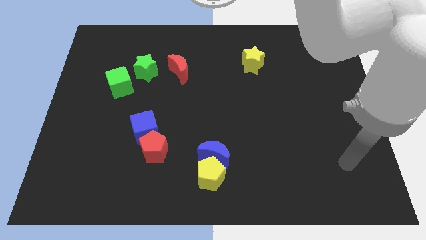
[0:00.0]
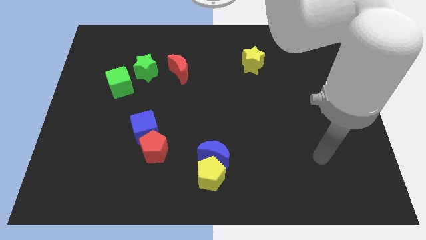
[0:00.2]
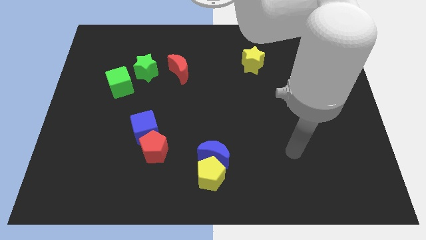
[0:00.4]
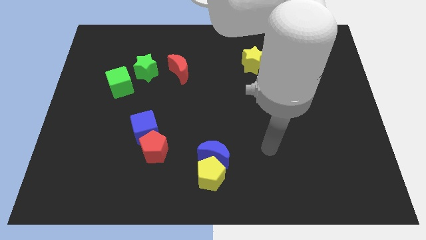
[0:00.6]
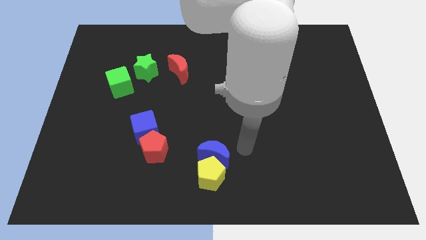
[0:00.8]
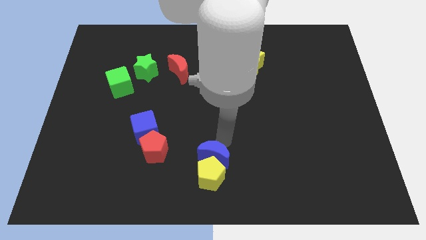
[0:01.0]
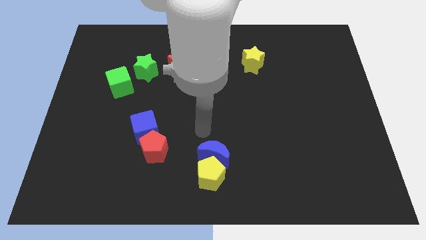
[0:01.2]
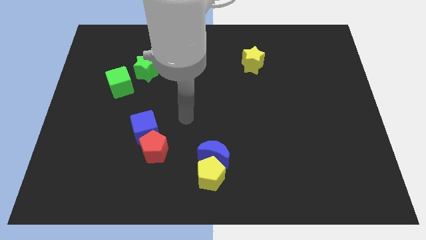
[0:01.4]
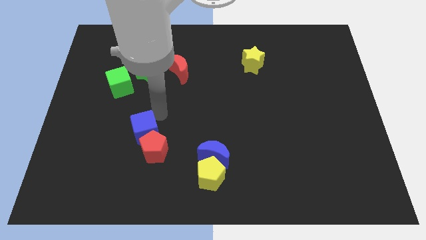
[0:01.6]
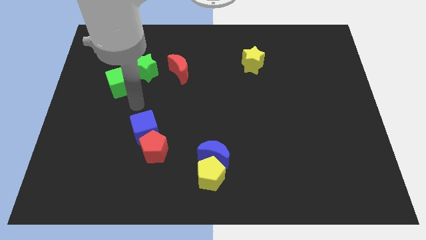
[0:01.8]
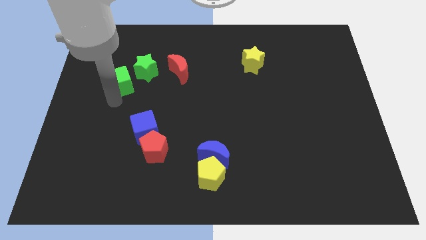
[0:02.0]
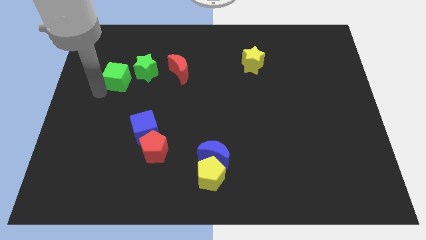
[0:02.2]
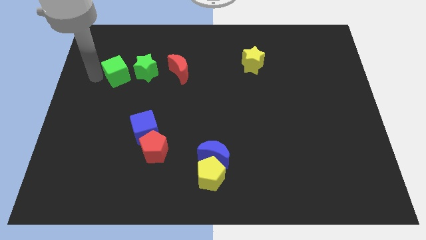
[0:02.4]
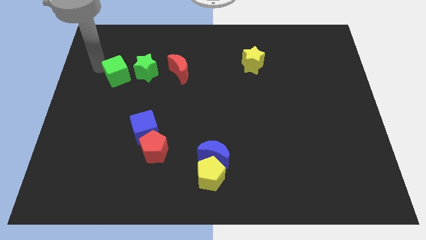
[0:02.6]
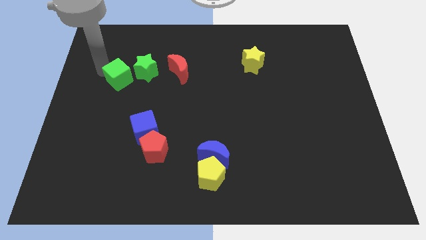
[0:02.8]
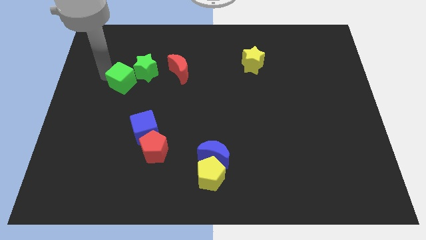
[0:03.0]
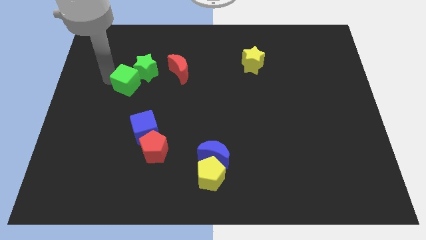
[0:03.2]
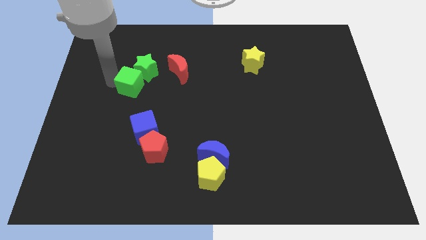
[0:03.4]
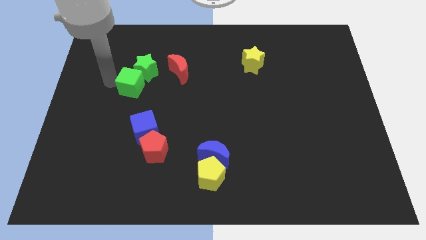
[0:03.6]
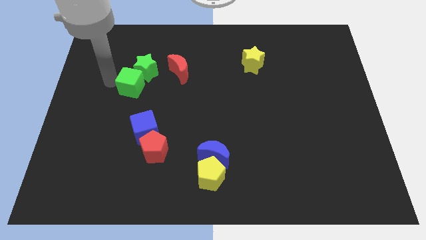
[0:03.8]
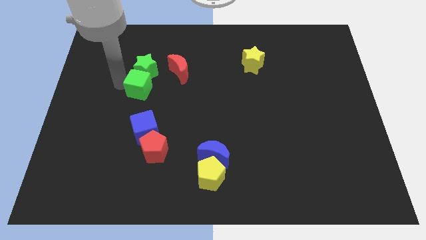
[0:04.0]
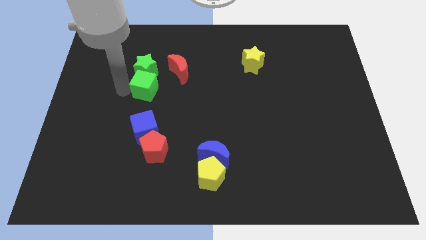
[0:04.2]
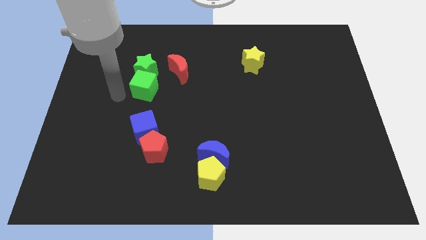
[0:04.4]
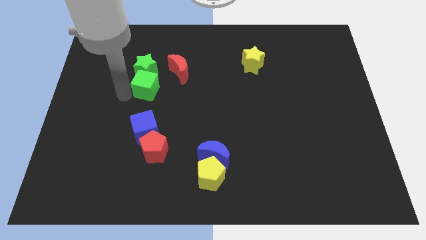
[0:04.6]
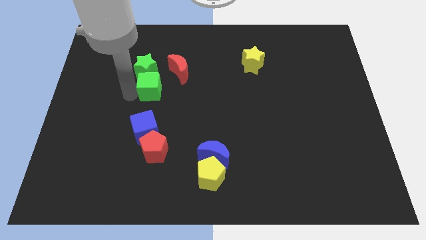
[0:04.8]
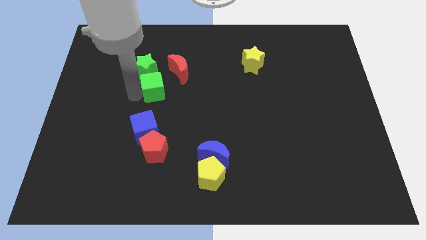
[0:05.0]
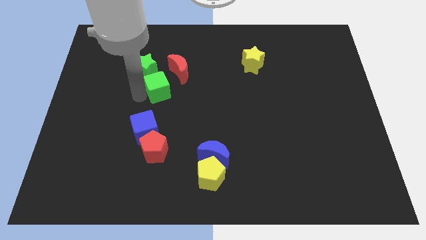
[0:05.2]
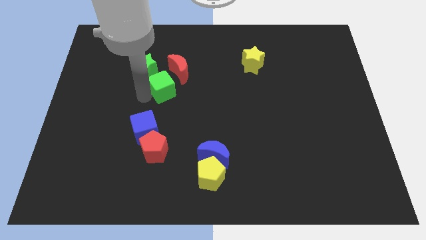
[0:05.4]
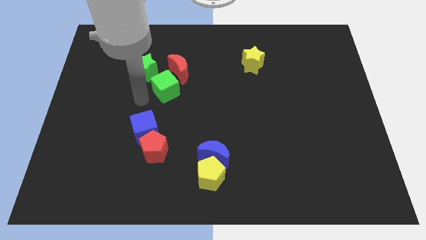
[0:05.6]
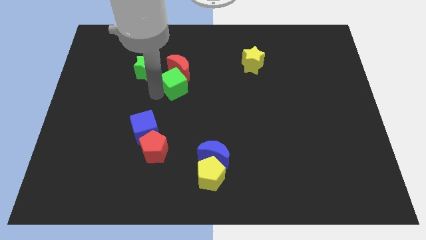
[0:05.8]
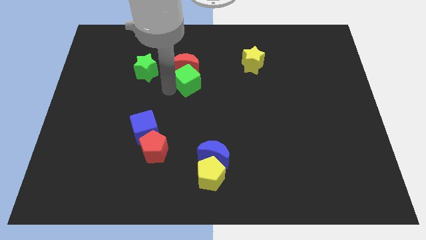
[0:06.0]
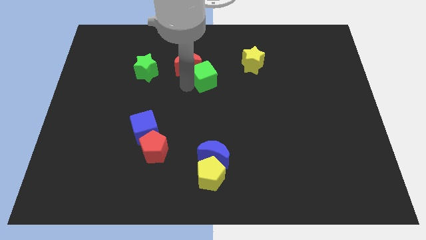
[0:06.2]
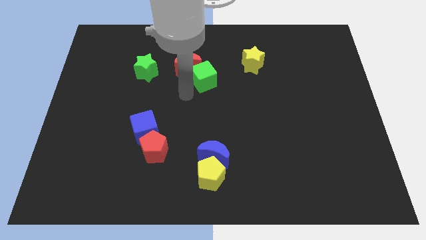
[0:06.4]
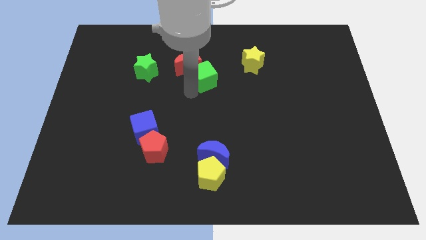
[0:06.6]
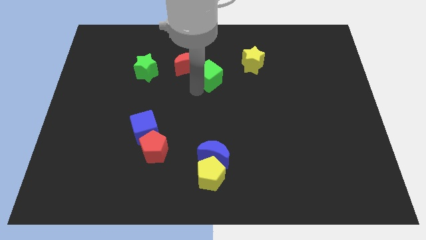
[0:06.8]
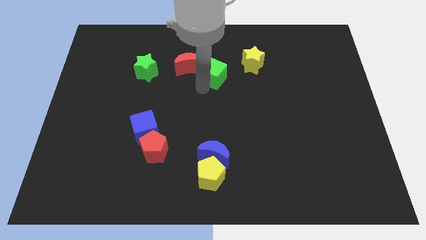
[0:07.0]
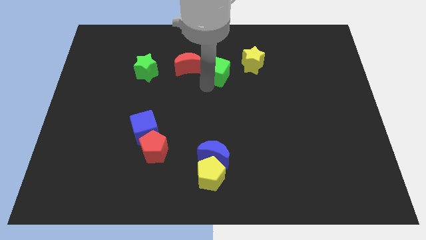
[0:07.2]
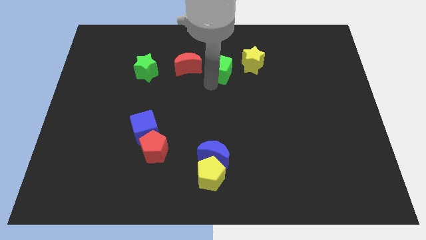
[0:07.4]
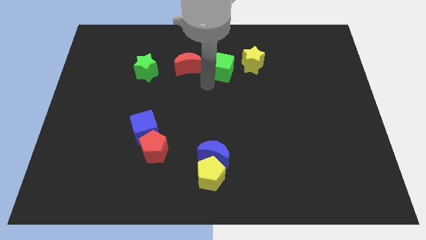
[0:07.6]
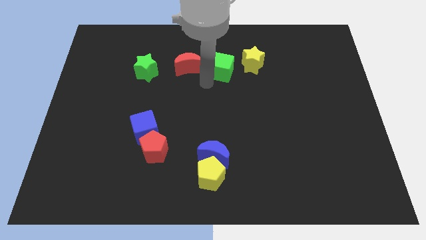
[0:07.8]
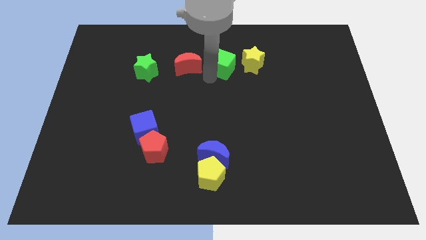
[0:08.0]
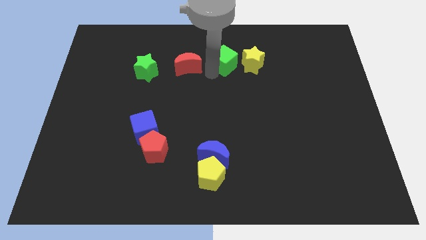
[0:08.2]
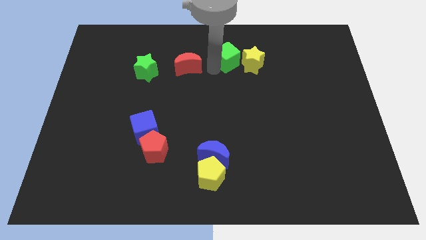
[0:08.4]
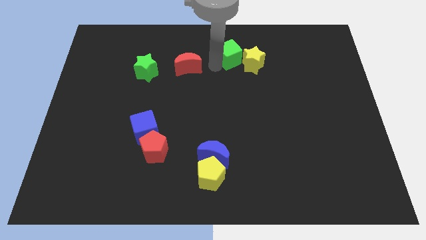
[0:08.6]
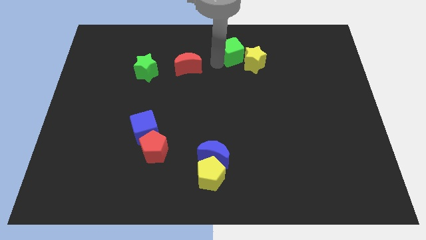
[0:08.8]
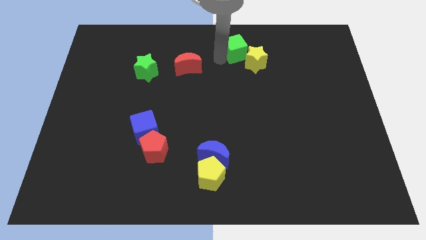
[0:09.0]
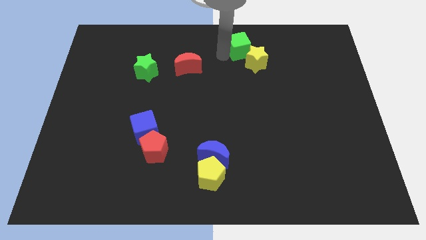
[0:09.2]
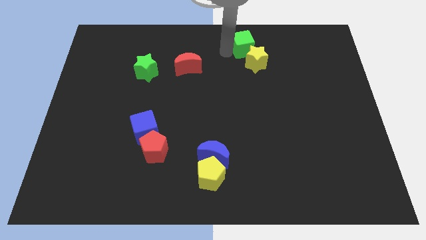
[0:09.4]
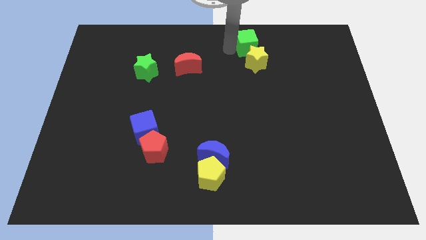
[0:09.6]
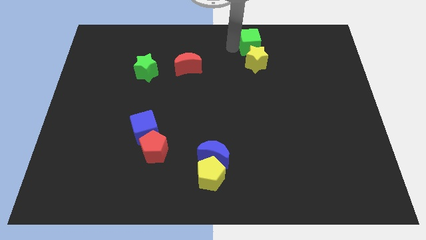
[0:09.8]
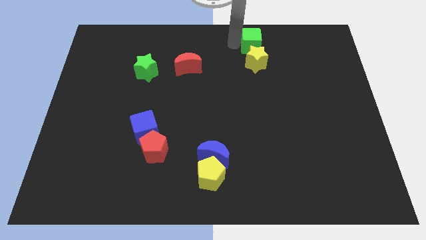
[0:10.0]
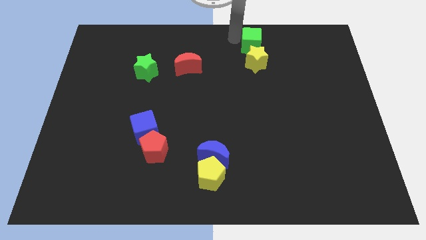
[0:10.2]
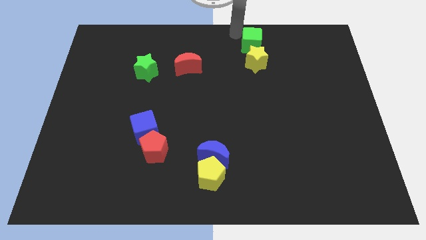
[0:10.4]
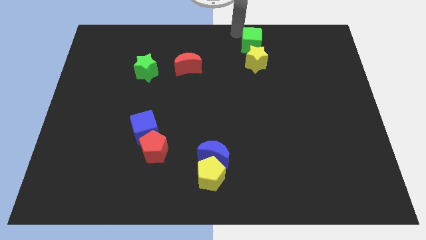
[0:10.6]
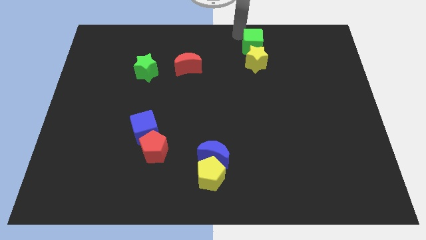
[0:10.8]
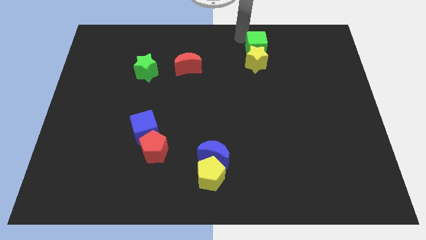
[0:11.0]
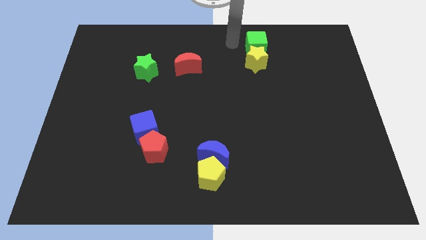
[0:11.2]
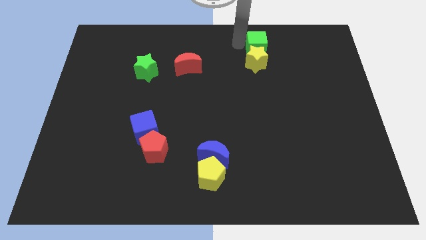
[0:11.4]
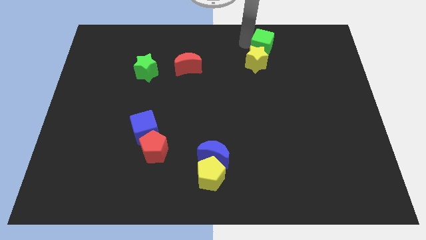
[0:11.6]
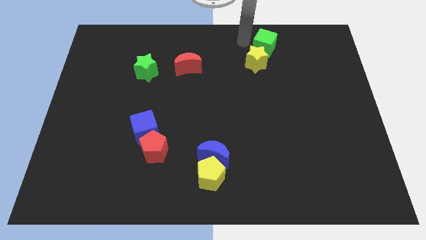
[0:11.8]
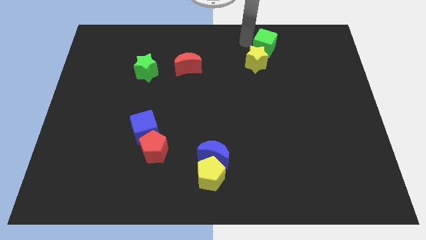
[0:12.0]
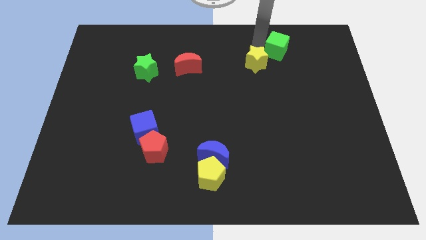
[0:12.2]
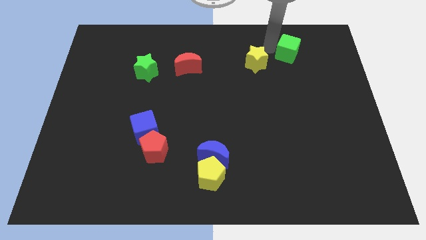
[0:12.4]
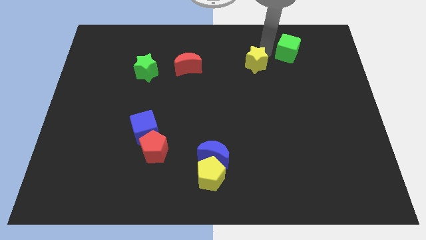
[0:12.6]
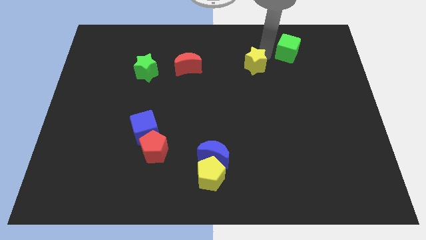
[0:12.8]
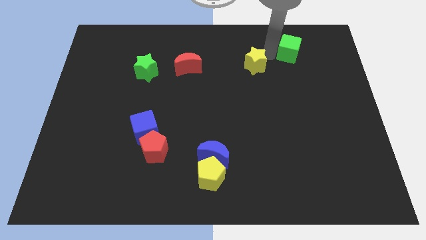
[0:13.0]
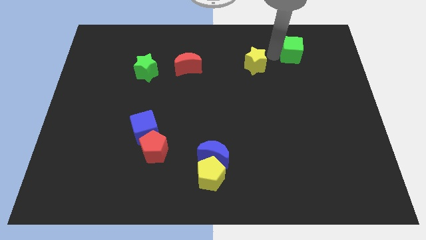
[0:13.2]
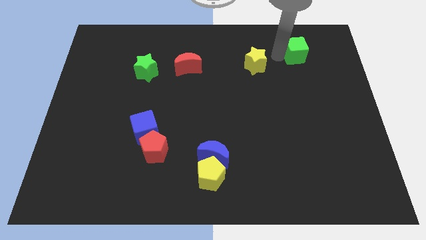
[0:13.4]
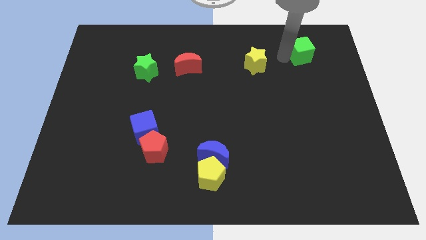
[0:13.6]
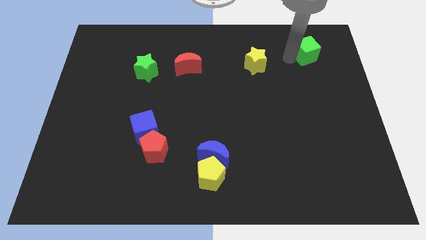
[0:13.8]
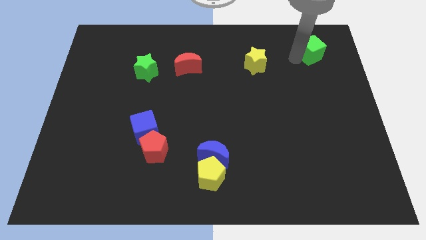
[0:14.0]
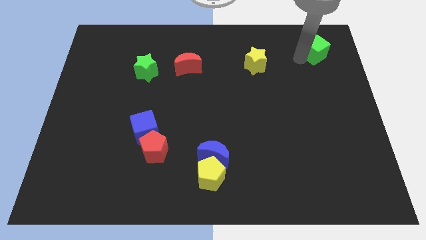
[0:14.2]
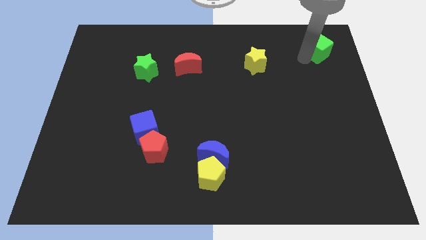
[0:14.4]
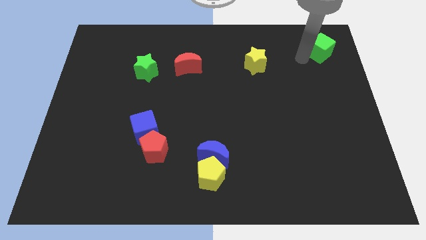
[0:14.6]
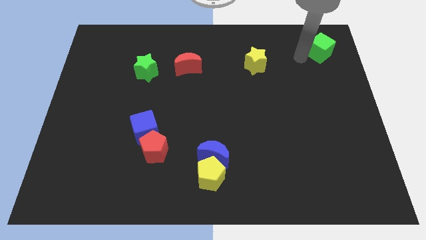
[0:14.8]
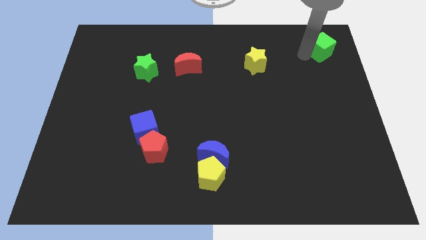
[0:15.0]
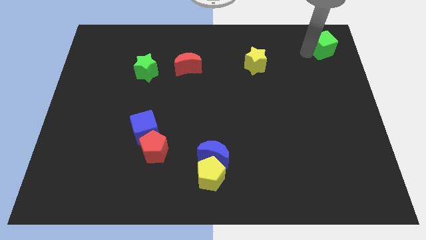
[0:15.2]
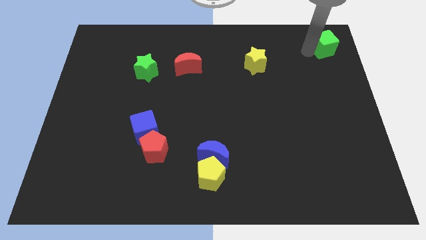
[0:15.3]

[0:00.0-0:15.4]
push the green cube to the top right corner
